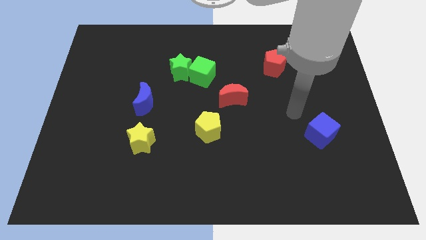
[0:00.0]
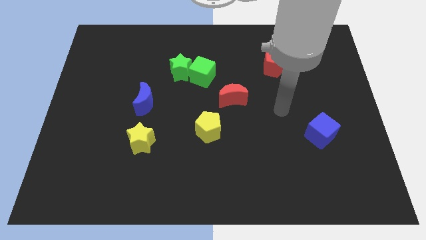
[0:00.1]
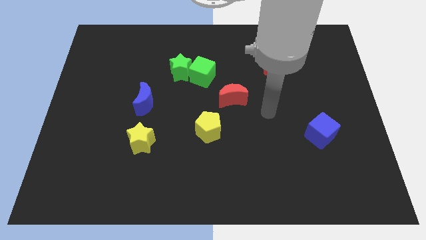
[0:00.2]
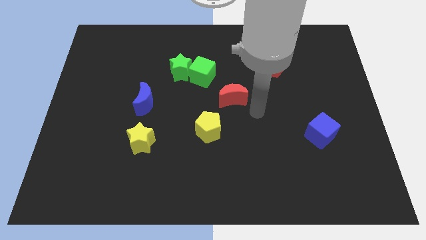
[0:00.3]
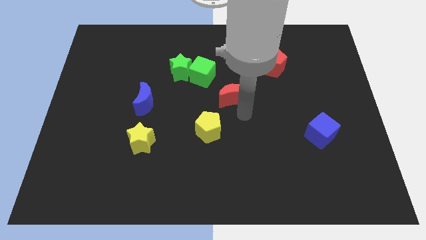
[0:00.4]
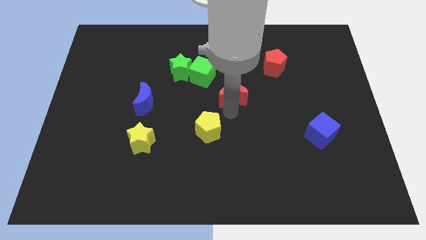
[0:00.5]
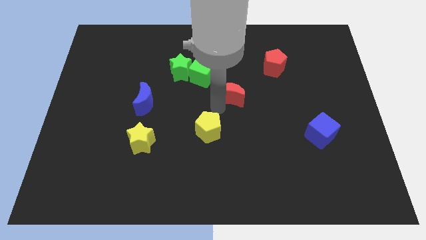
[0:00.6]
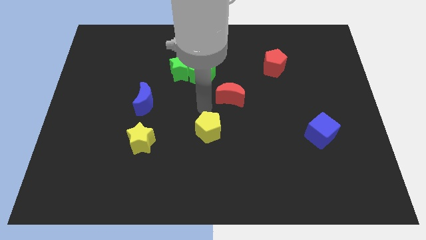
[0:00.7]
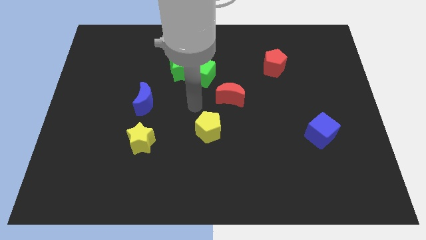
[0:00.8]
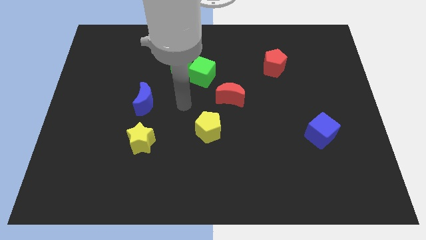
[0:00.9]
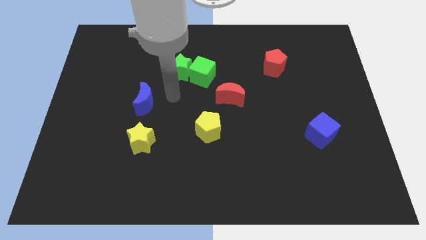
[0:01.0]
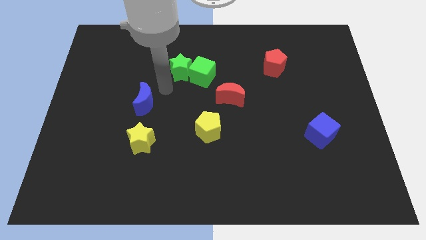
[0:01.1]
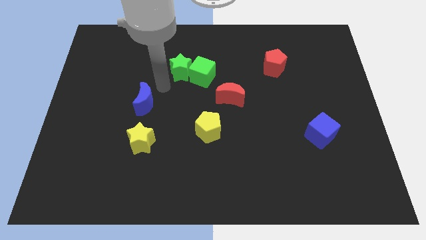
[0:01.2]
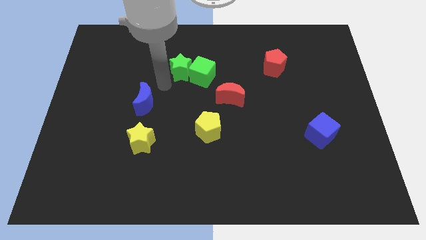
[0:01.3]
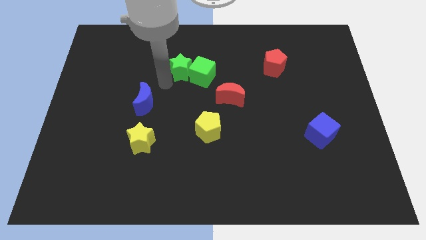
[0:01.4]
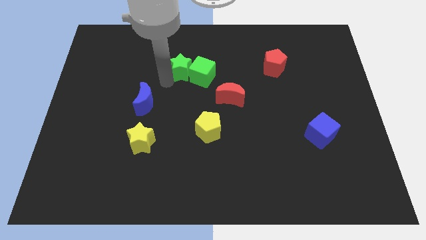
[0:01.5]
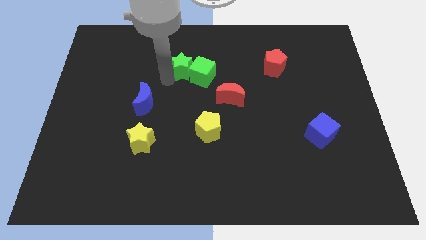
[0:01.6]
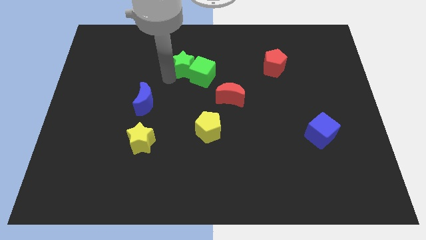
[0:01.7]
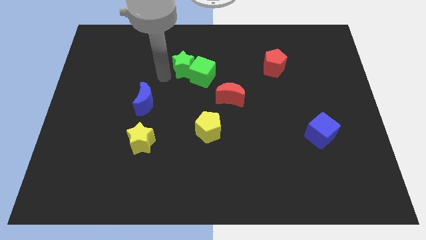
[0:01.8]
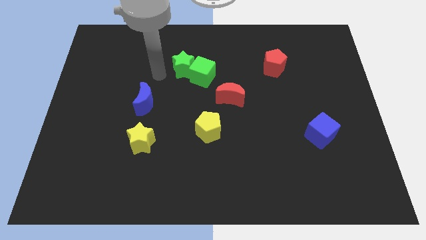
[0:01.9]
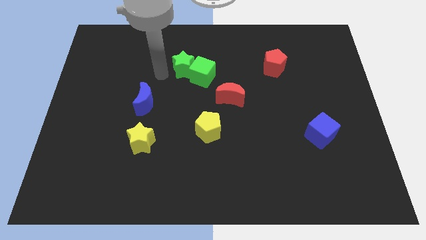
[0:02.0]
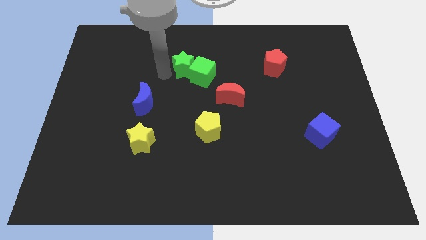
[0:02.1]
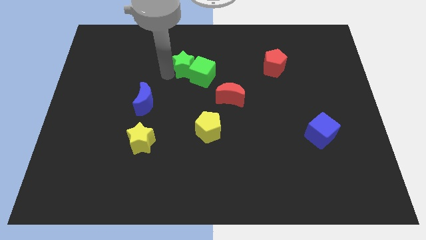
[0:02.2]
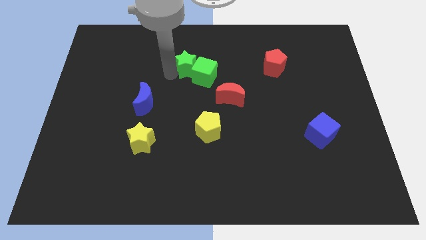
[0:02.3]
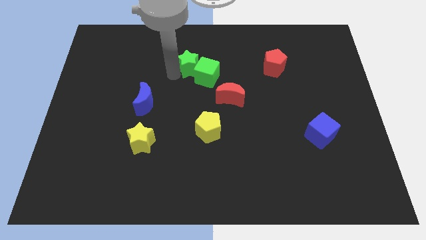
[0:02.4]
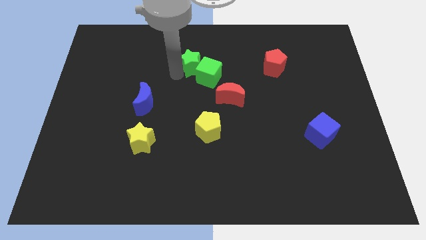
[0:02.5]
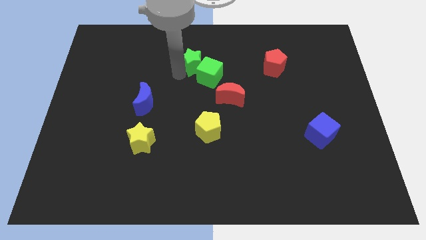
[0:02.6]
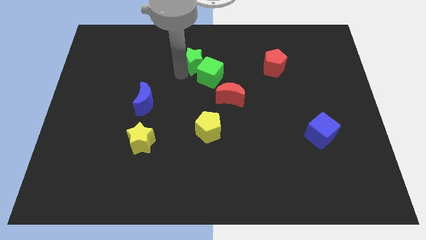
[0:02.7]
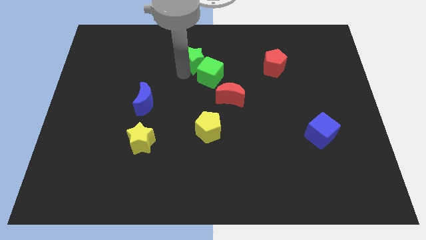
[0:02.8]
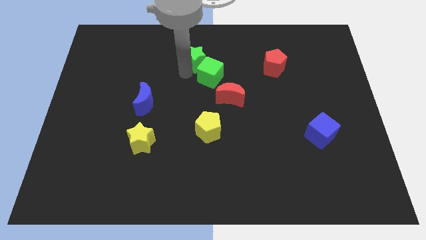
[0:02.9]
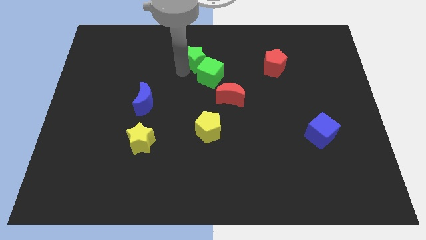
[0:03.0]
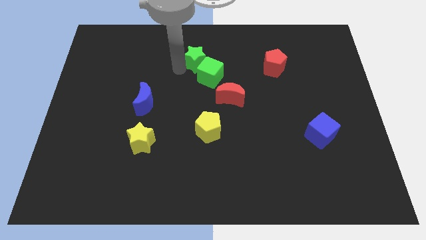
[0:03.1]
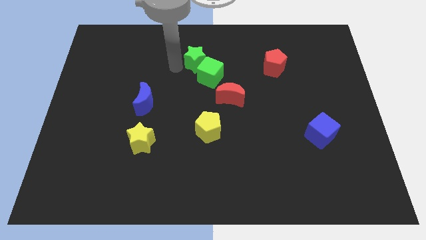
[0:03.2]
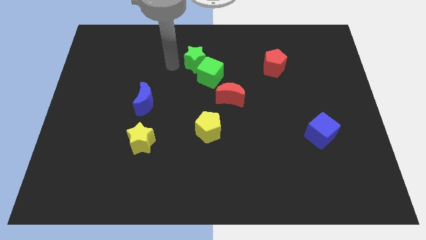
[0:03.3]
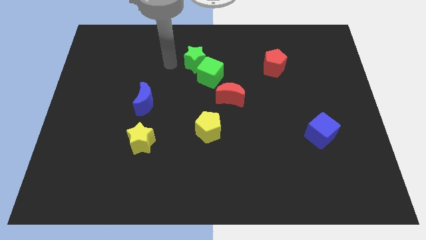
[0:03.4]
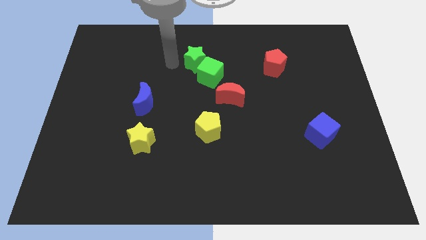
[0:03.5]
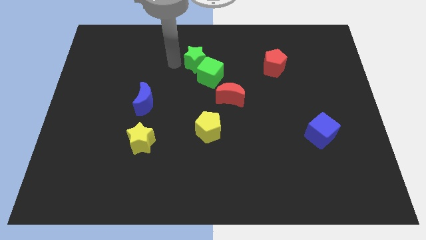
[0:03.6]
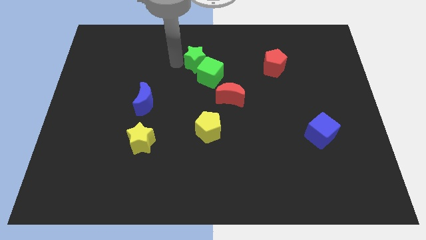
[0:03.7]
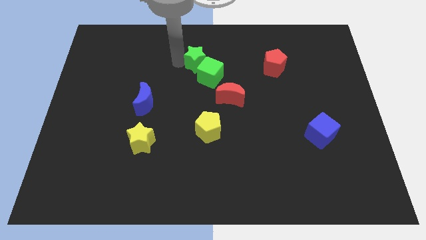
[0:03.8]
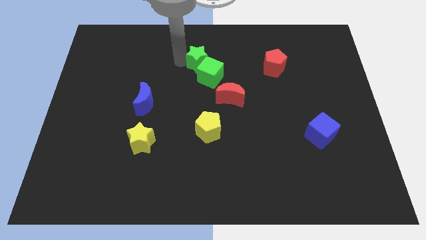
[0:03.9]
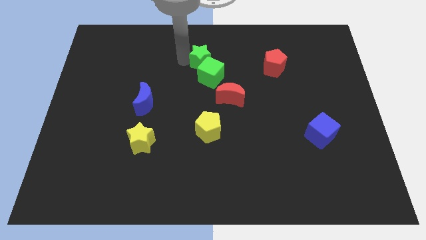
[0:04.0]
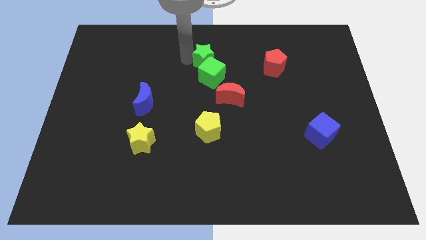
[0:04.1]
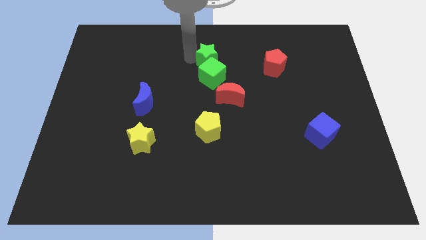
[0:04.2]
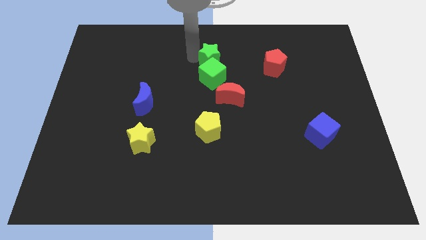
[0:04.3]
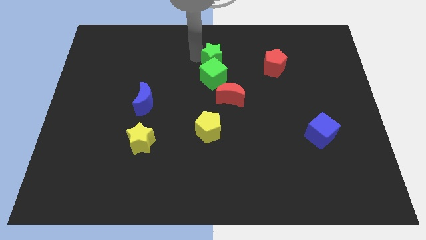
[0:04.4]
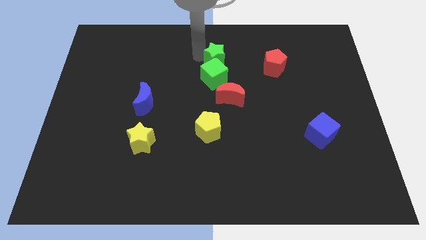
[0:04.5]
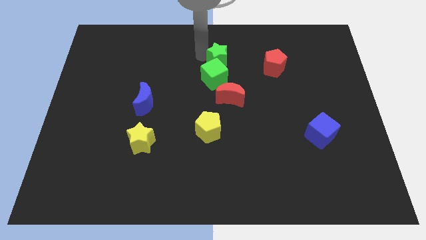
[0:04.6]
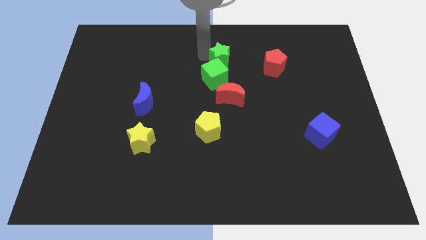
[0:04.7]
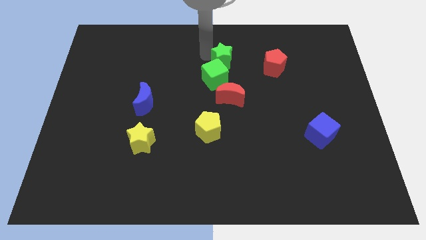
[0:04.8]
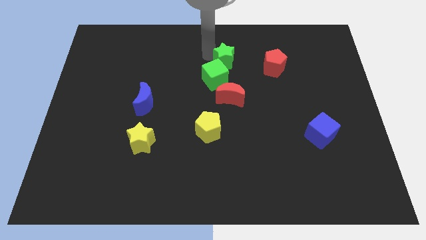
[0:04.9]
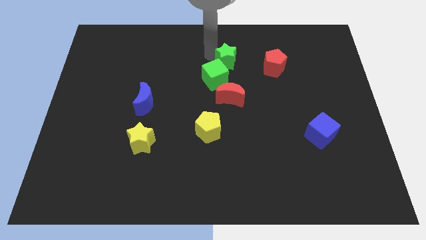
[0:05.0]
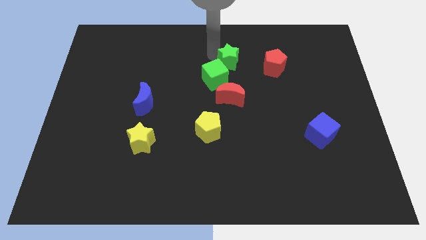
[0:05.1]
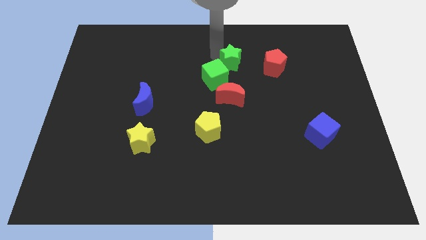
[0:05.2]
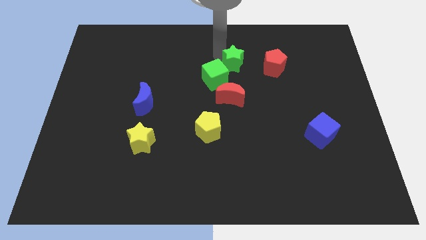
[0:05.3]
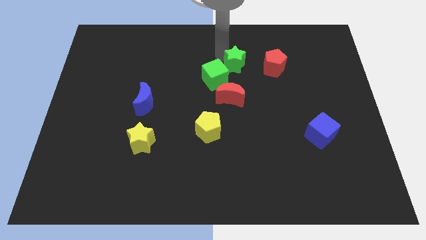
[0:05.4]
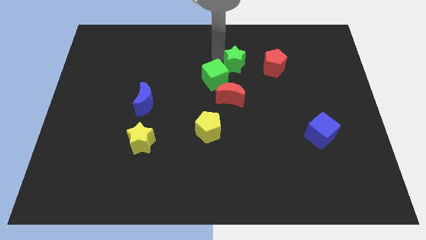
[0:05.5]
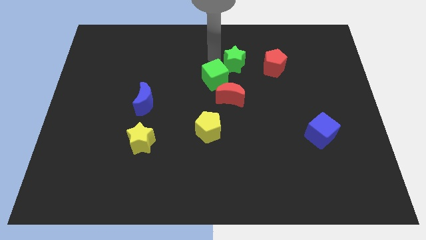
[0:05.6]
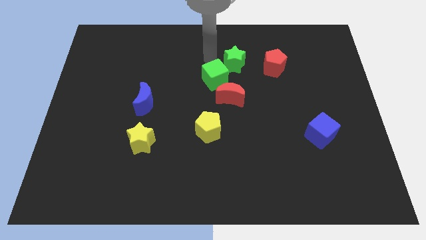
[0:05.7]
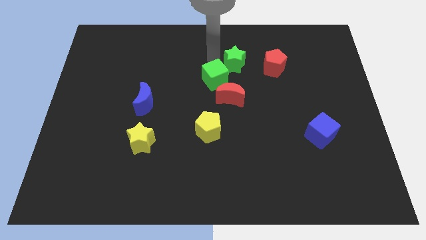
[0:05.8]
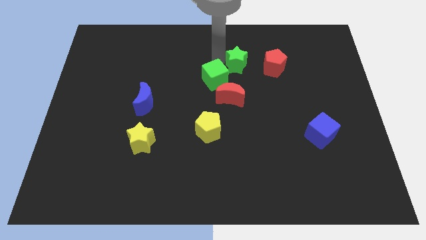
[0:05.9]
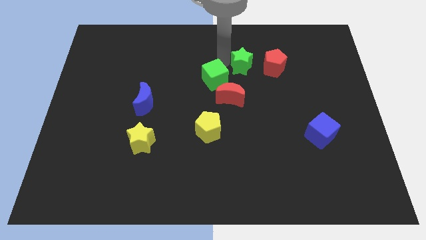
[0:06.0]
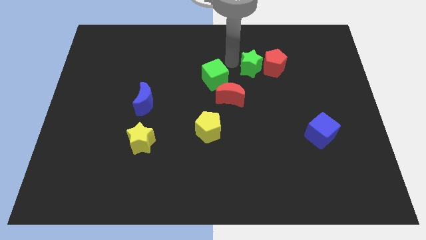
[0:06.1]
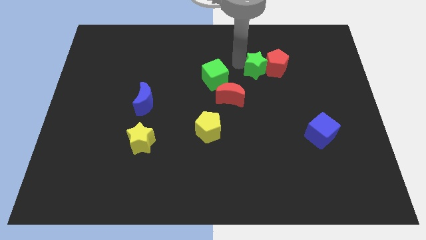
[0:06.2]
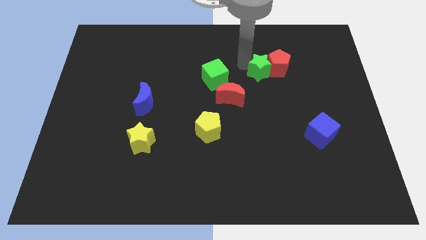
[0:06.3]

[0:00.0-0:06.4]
move the green star to the right

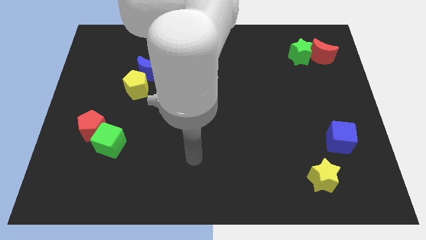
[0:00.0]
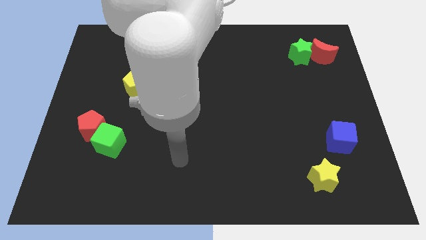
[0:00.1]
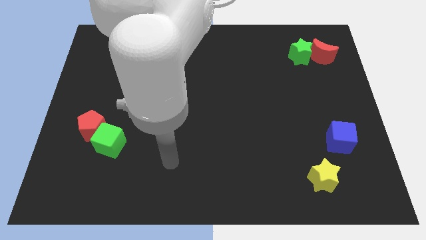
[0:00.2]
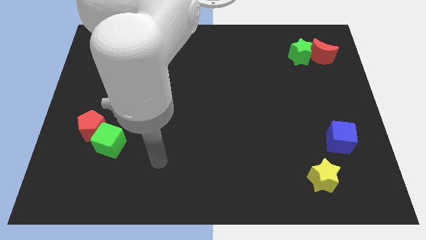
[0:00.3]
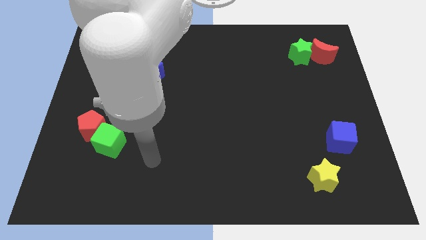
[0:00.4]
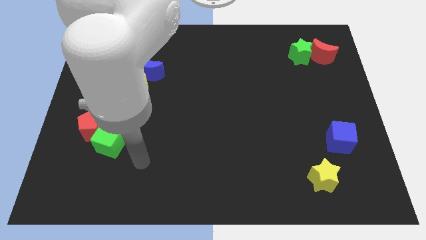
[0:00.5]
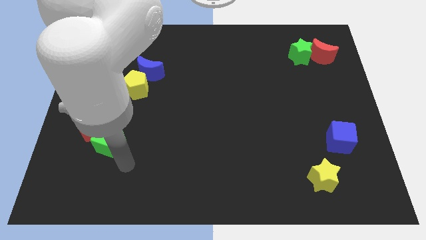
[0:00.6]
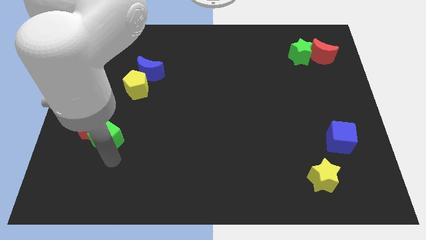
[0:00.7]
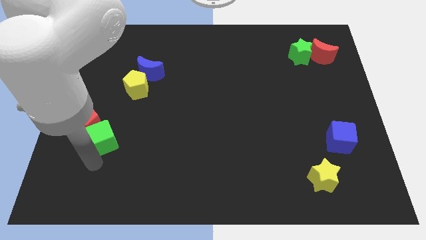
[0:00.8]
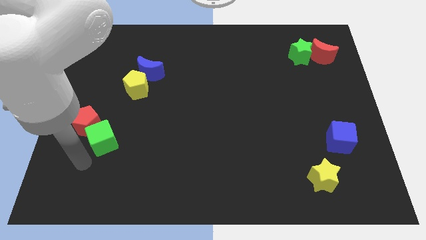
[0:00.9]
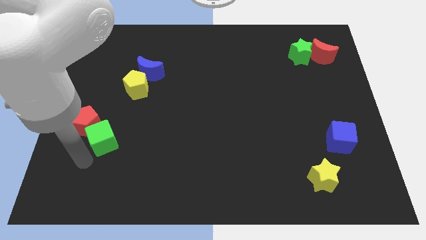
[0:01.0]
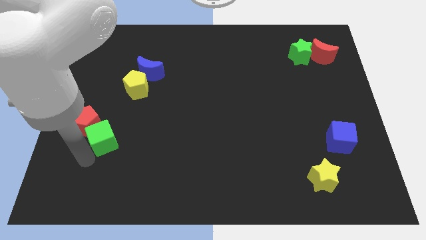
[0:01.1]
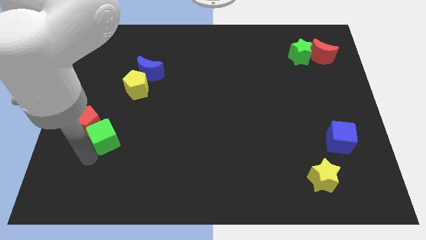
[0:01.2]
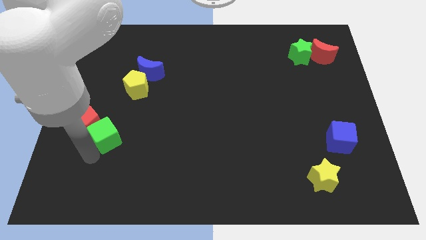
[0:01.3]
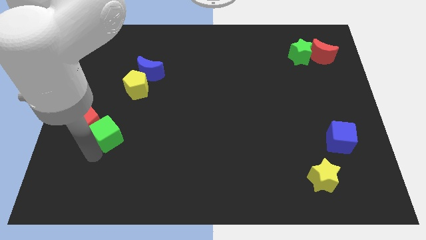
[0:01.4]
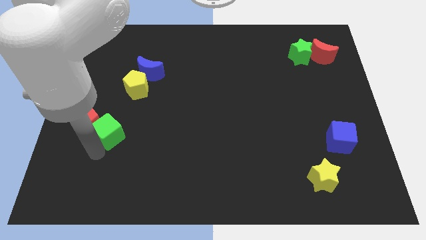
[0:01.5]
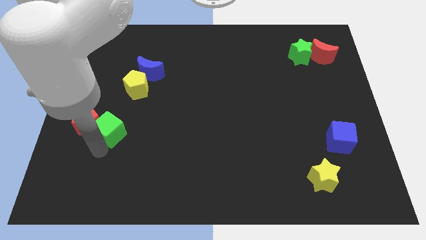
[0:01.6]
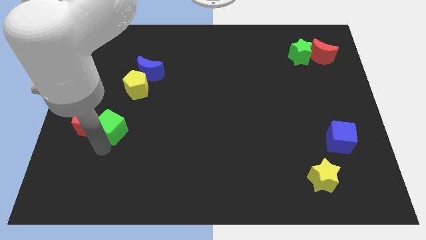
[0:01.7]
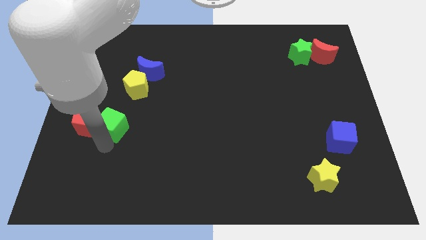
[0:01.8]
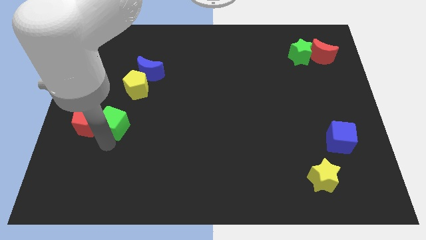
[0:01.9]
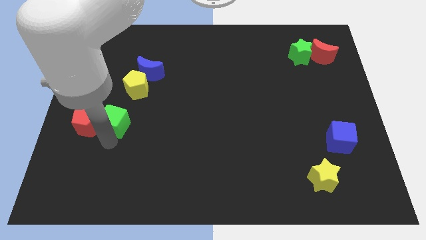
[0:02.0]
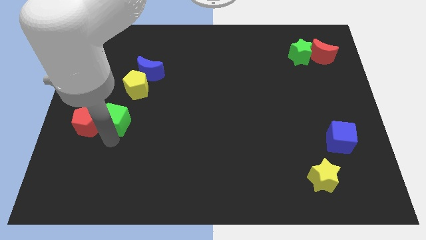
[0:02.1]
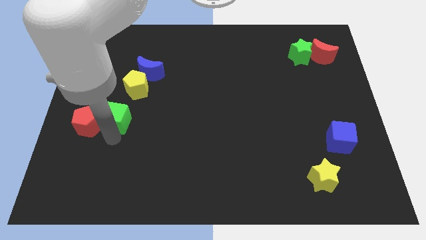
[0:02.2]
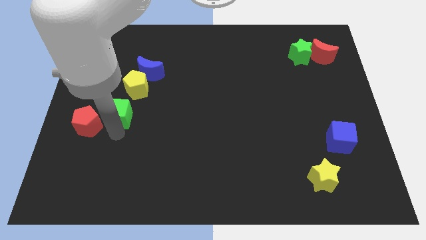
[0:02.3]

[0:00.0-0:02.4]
move the green cube somewhat upwards
